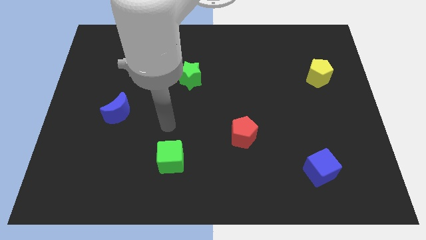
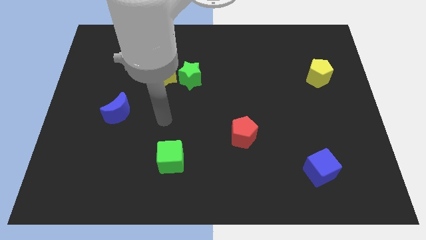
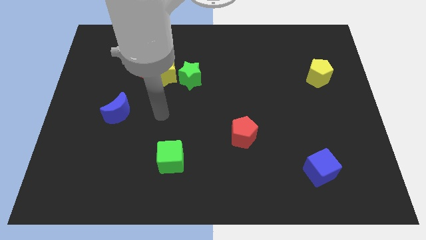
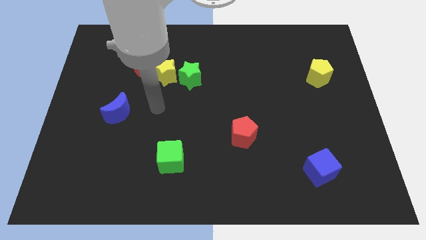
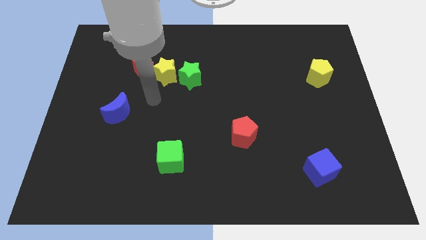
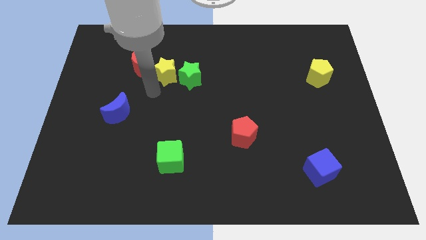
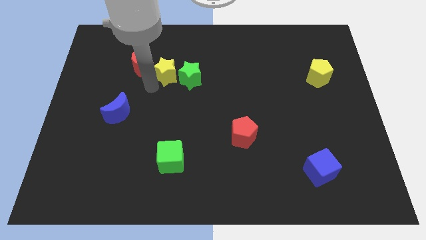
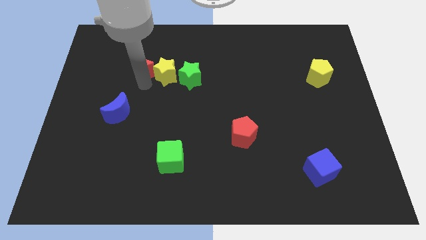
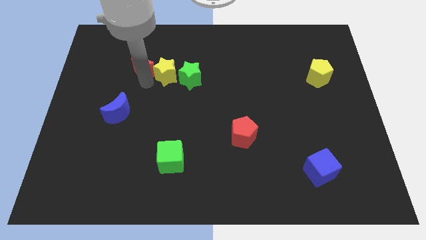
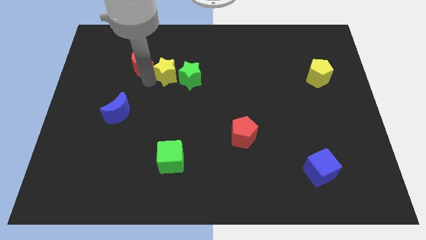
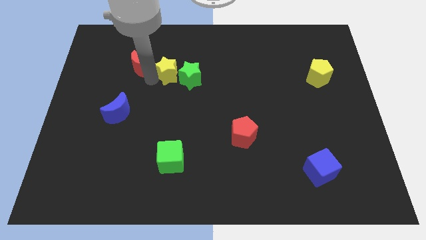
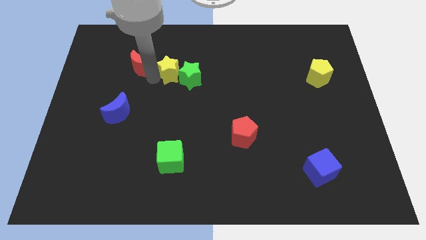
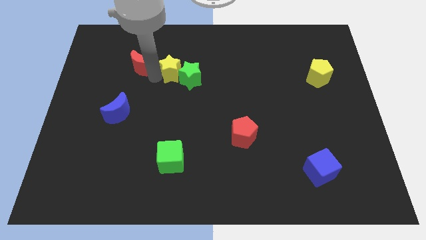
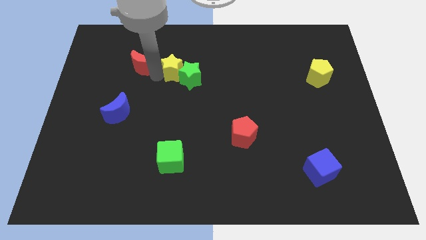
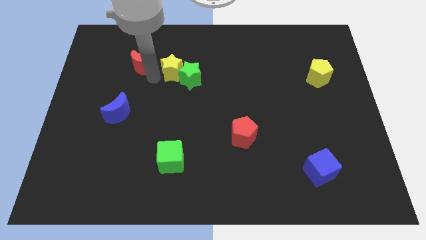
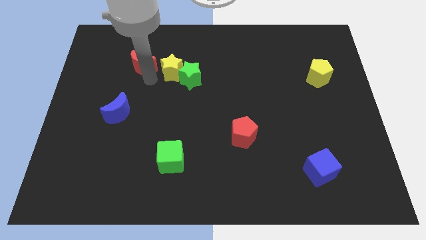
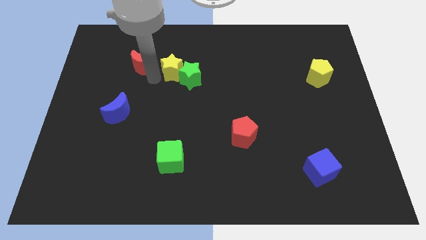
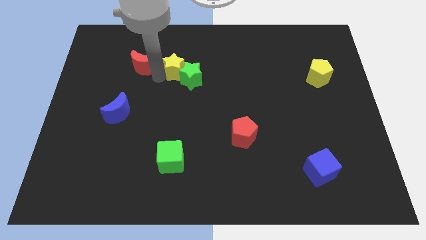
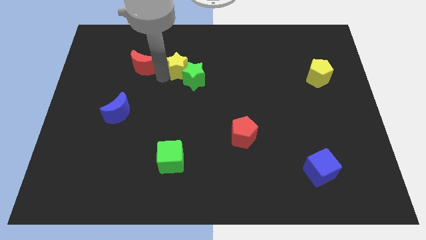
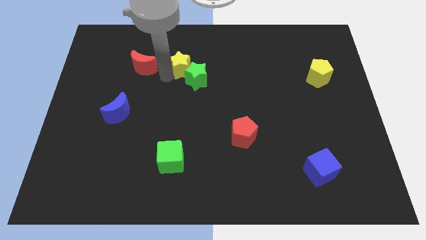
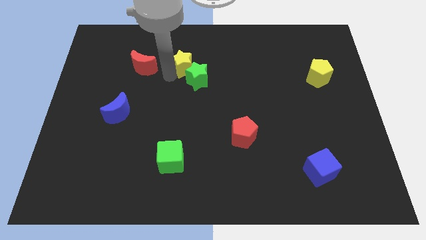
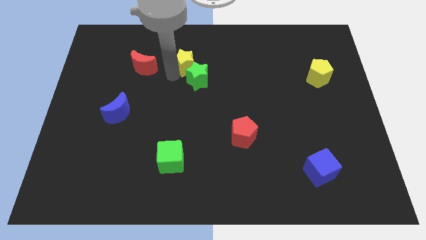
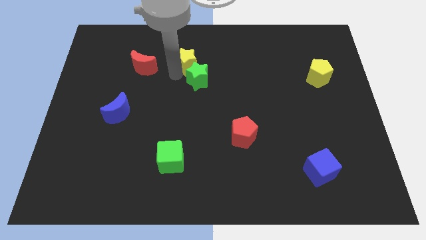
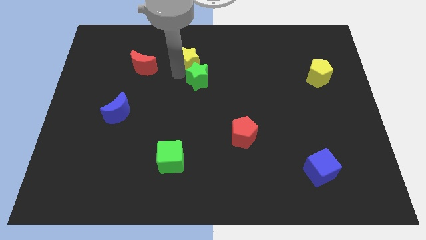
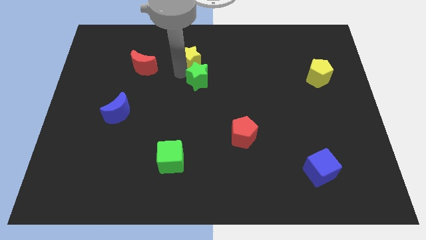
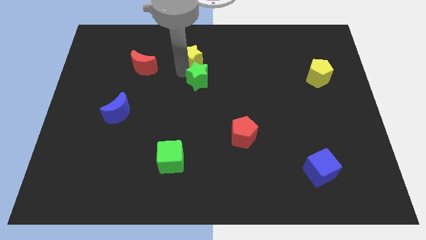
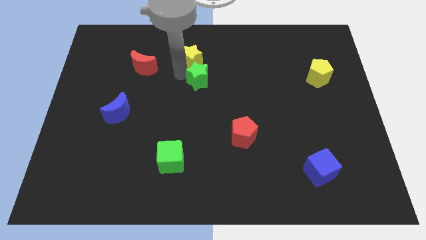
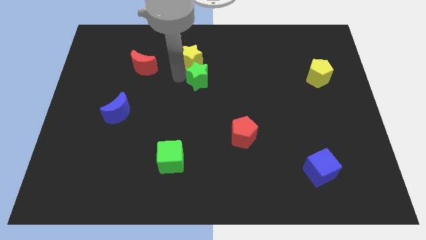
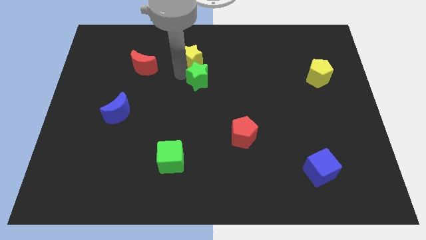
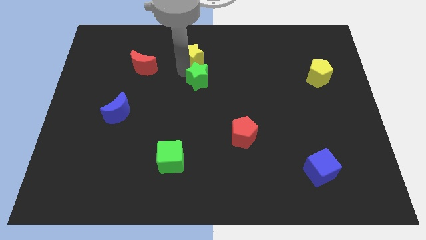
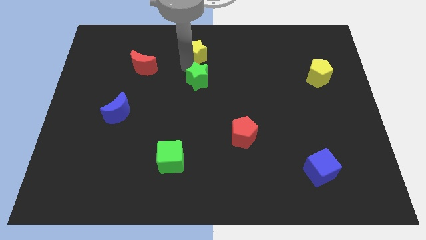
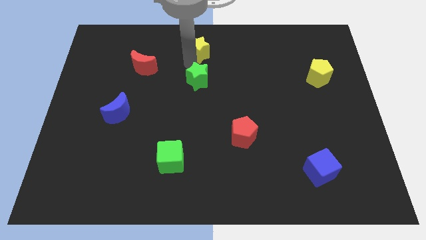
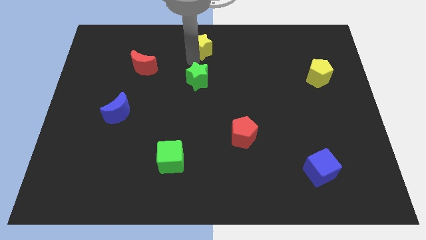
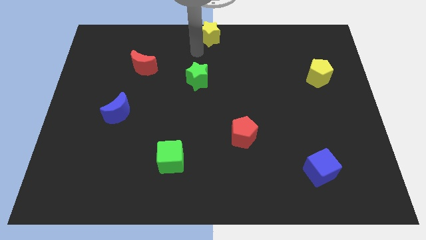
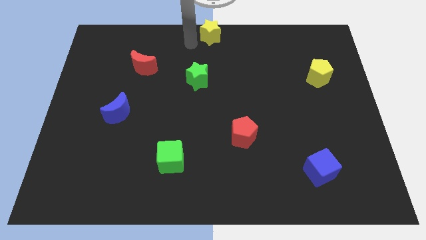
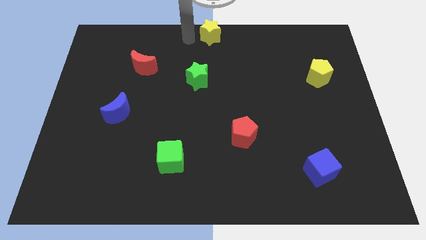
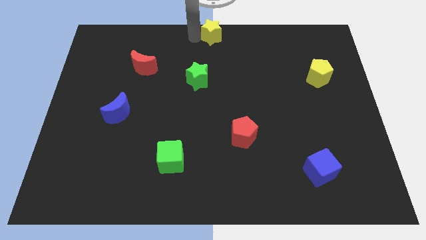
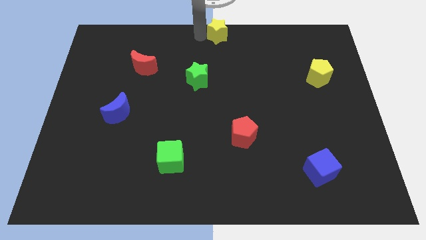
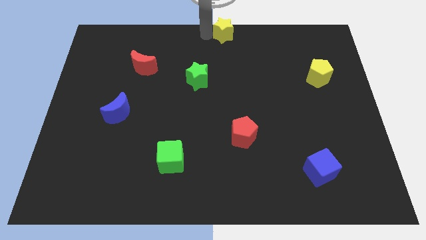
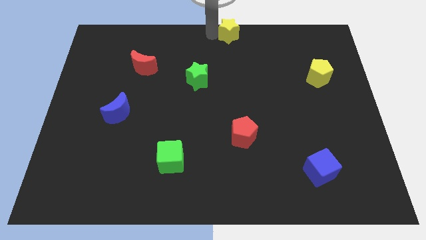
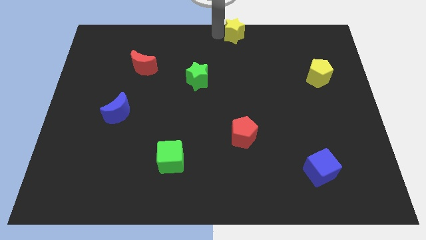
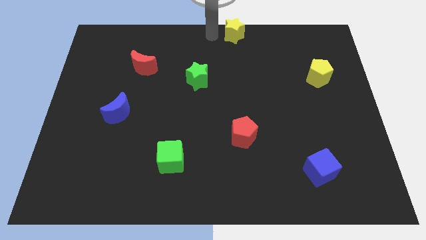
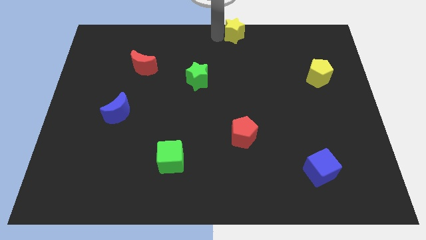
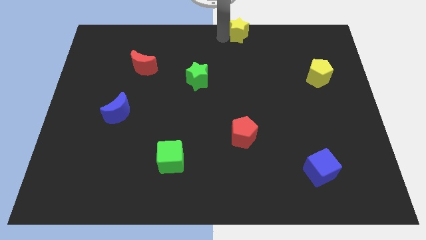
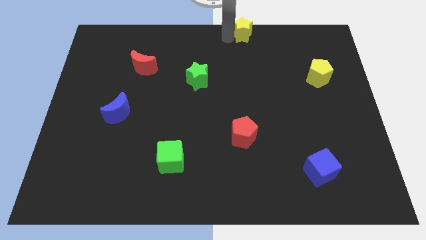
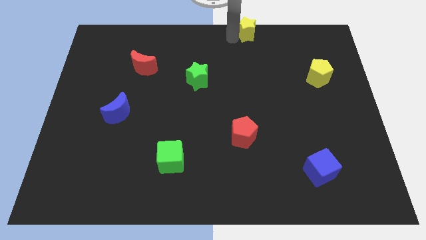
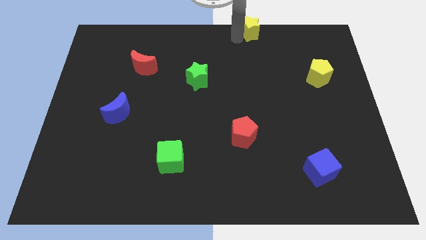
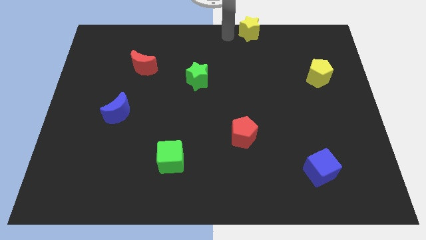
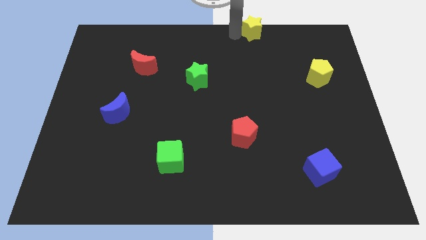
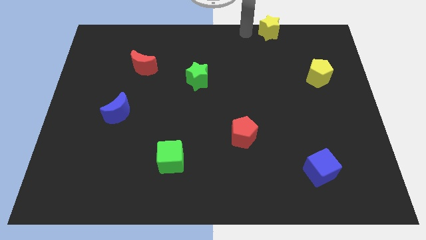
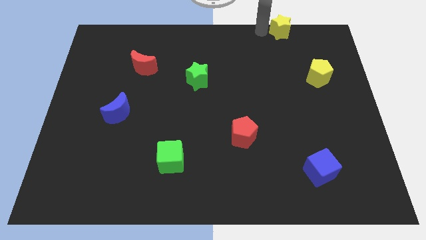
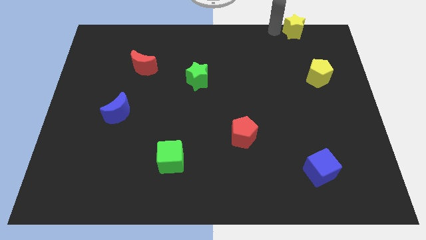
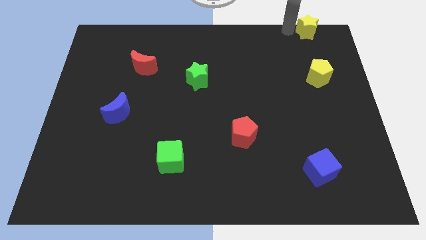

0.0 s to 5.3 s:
push the yellow star to the upper right corner
